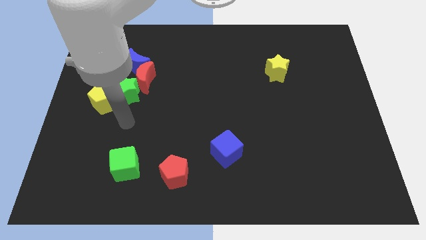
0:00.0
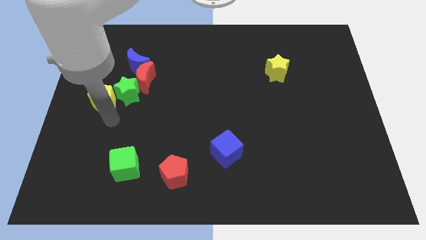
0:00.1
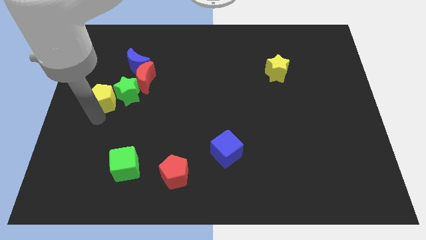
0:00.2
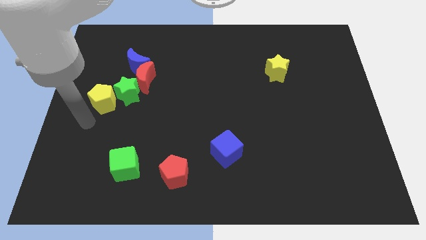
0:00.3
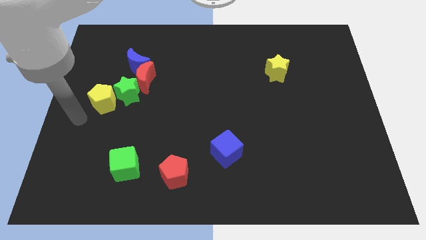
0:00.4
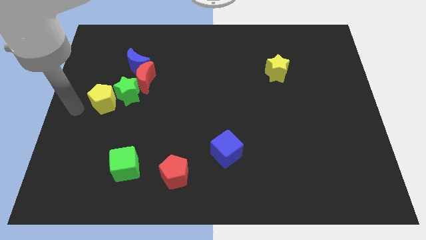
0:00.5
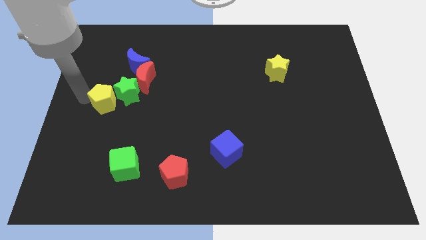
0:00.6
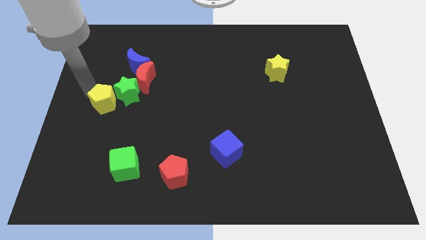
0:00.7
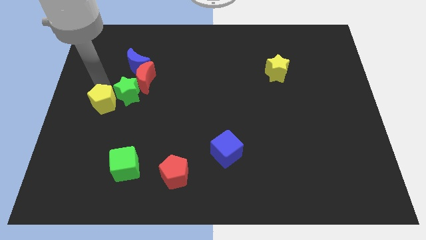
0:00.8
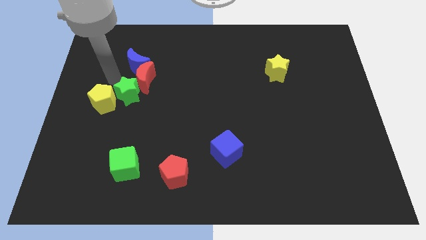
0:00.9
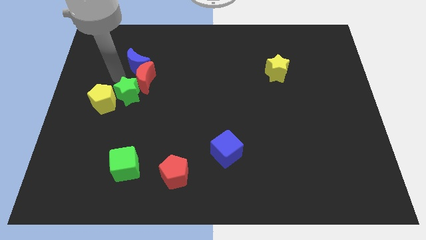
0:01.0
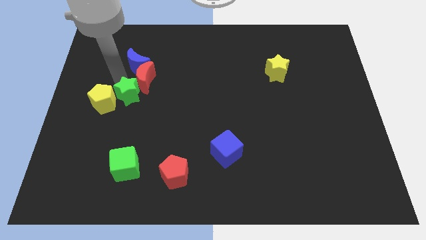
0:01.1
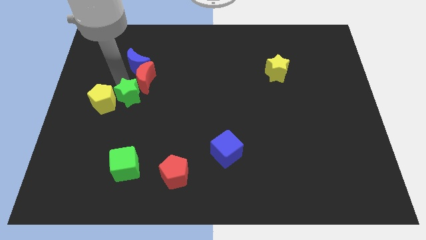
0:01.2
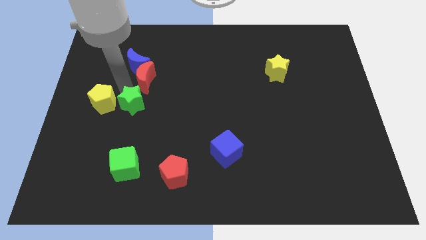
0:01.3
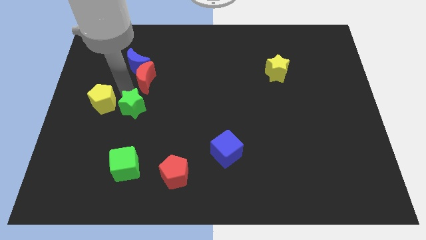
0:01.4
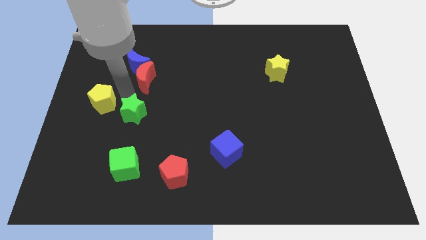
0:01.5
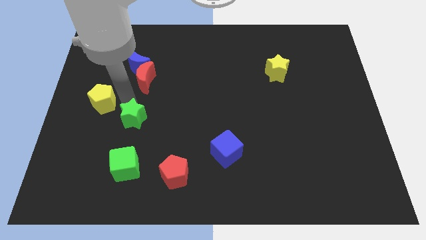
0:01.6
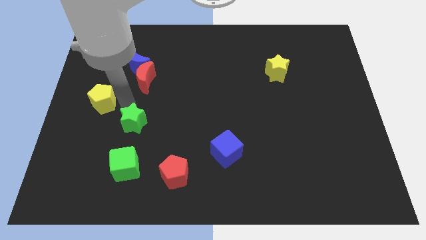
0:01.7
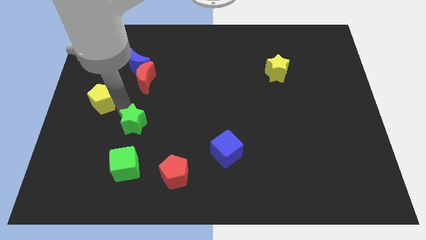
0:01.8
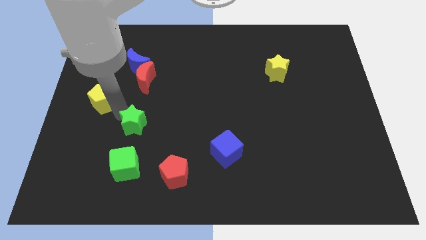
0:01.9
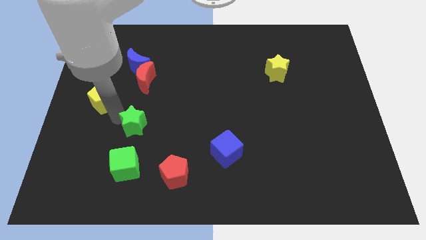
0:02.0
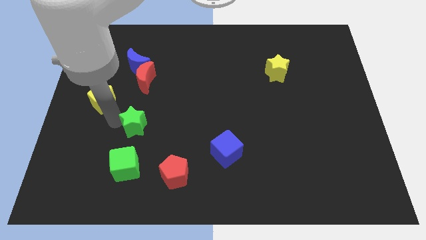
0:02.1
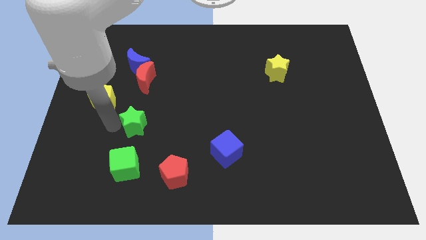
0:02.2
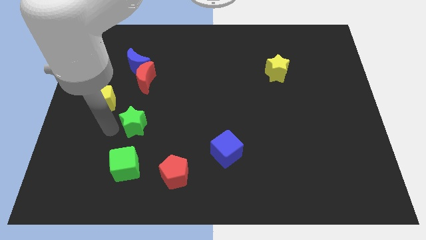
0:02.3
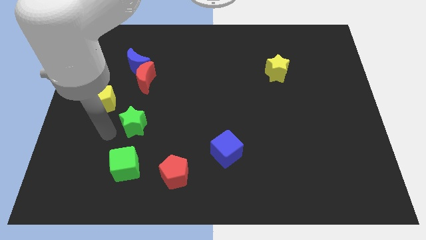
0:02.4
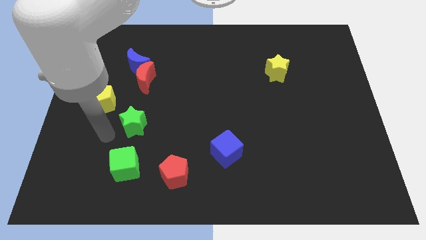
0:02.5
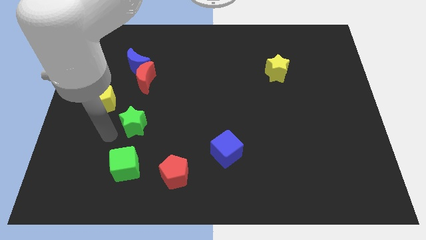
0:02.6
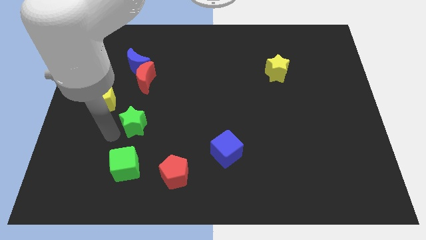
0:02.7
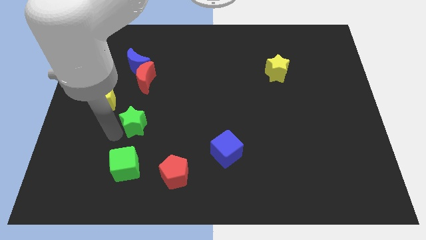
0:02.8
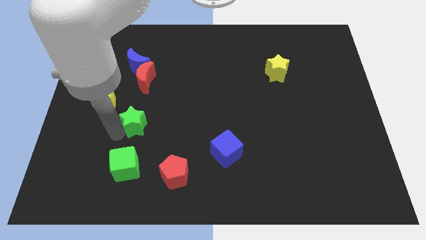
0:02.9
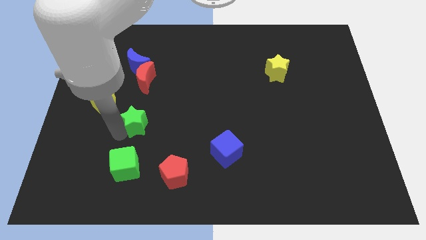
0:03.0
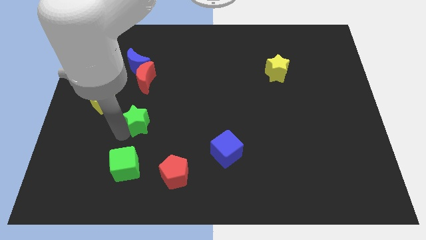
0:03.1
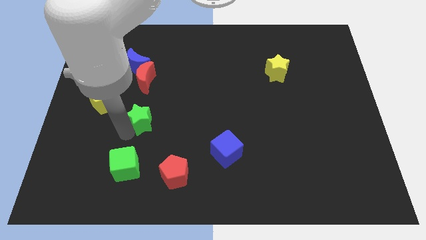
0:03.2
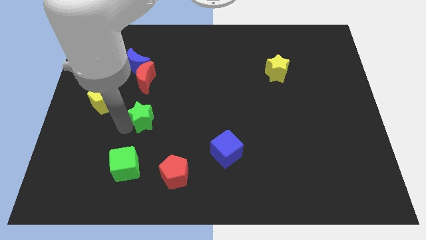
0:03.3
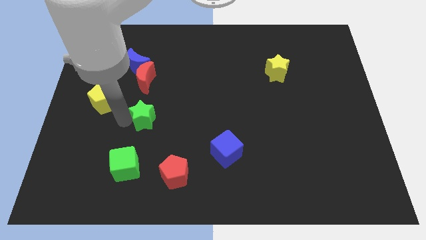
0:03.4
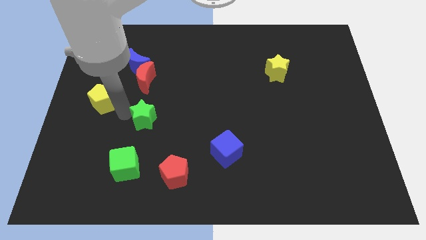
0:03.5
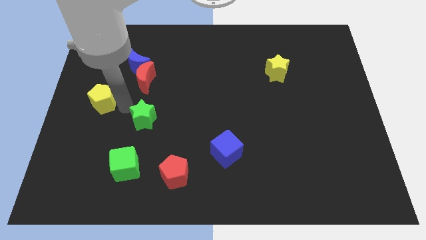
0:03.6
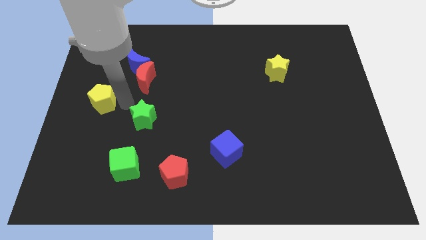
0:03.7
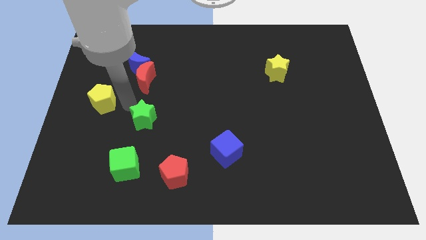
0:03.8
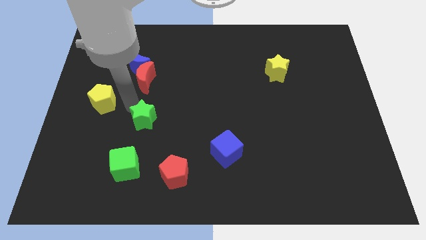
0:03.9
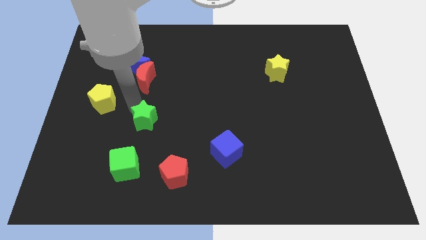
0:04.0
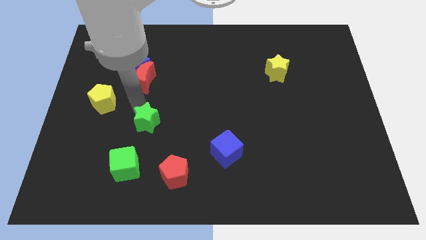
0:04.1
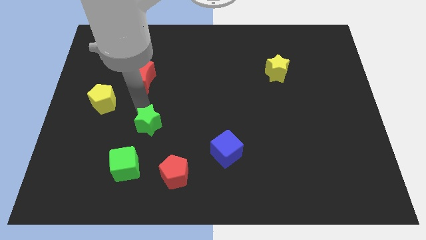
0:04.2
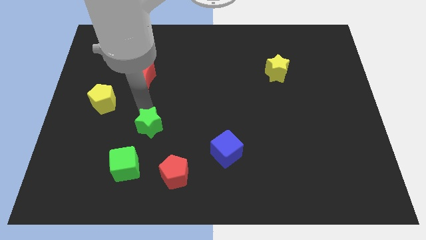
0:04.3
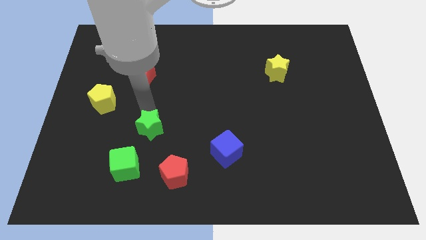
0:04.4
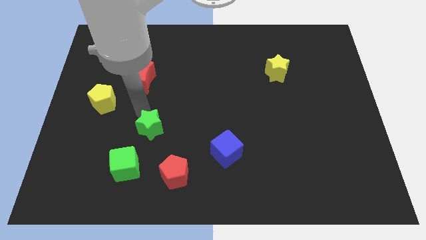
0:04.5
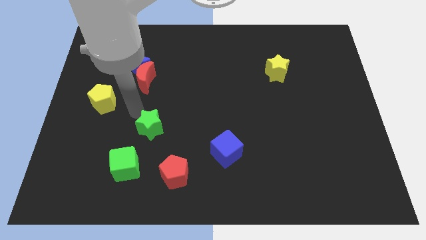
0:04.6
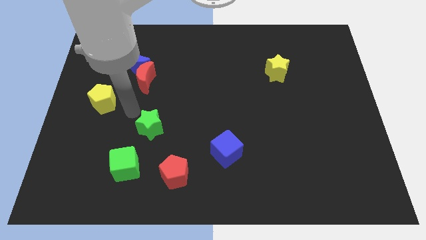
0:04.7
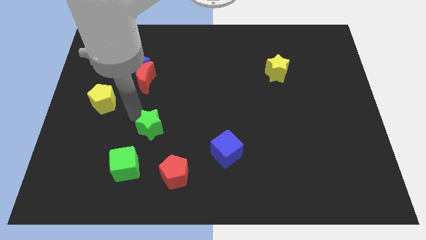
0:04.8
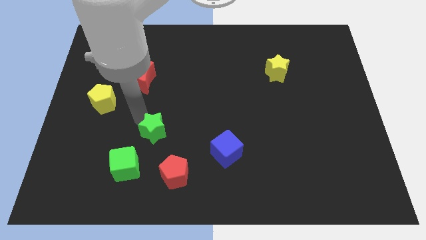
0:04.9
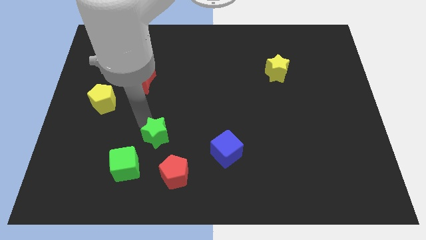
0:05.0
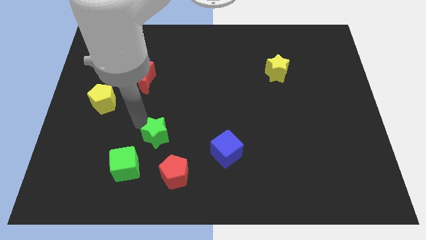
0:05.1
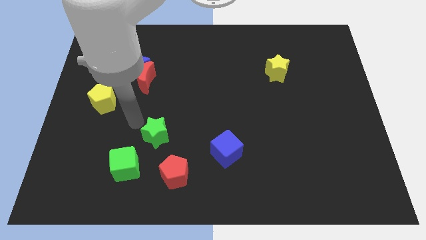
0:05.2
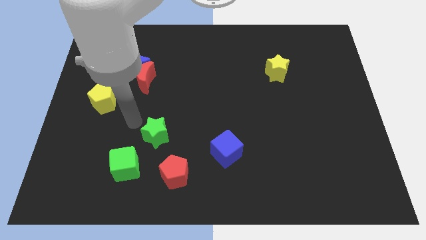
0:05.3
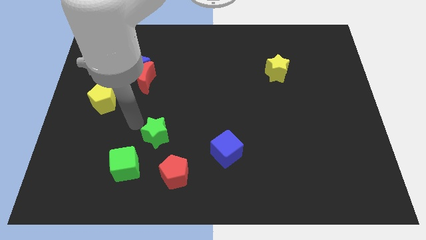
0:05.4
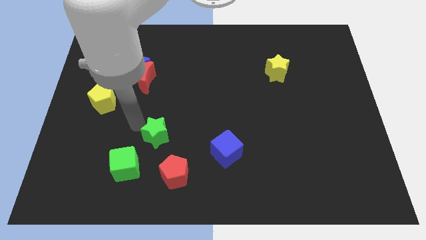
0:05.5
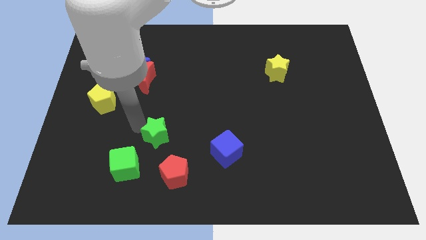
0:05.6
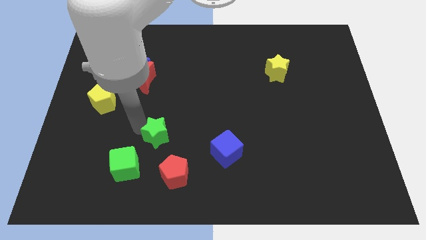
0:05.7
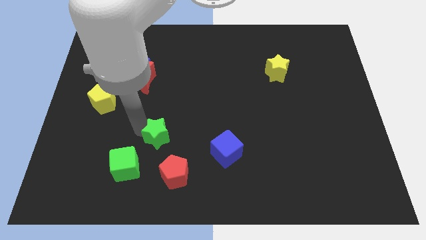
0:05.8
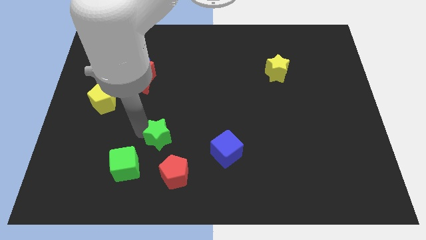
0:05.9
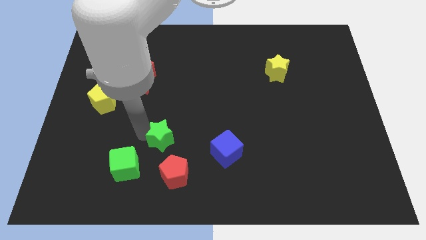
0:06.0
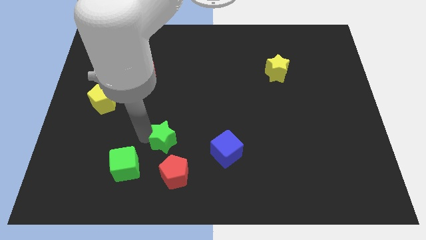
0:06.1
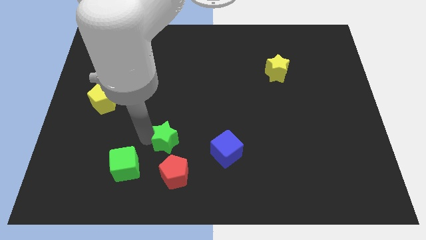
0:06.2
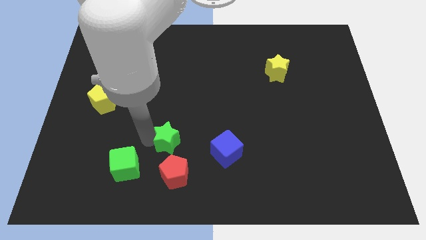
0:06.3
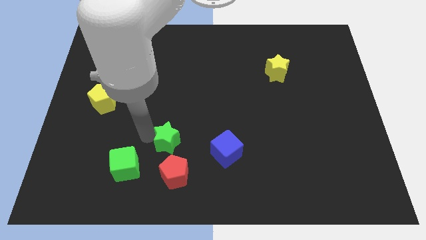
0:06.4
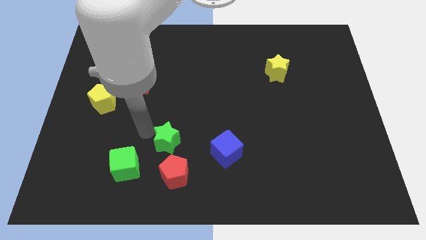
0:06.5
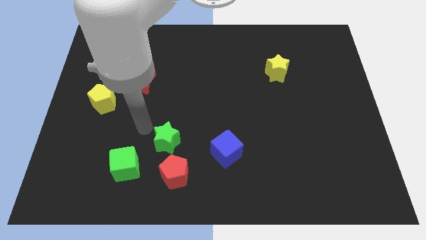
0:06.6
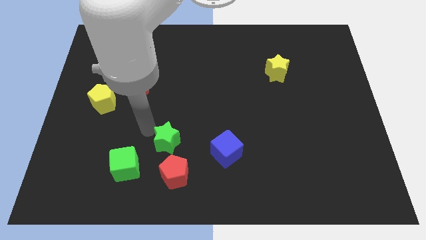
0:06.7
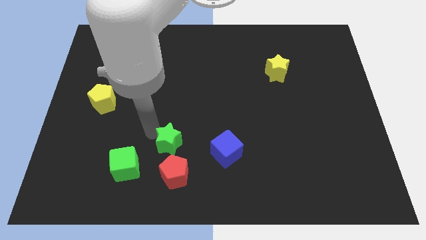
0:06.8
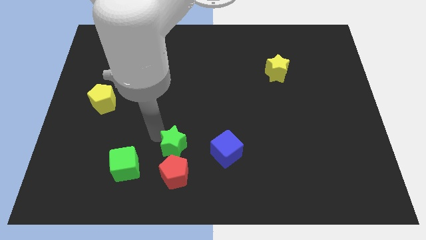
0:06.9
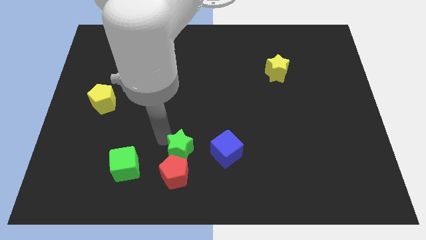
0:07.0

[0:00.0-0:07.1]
move the green star downwards and right diagonally

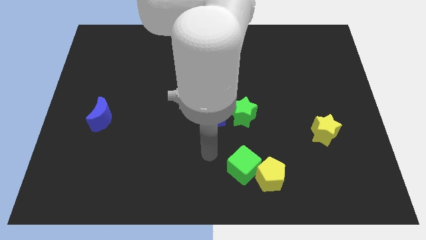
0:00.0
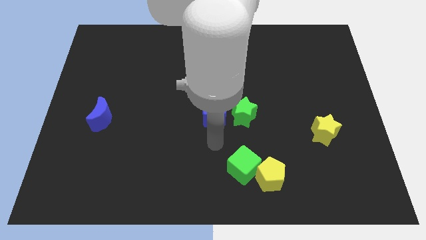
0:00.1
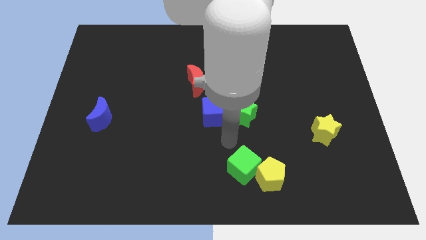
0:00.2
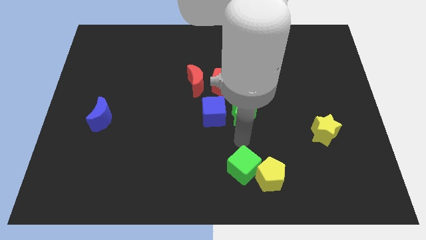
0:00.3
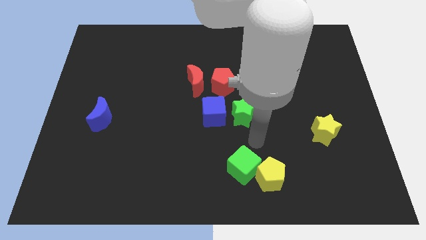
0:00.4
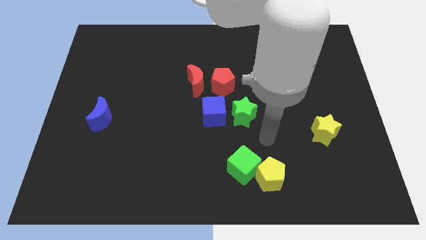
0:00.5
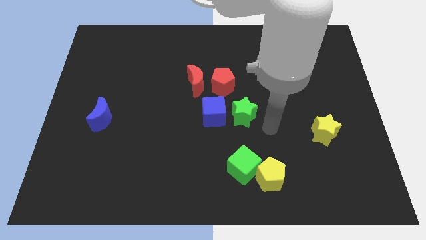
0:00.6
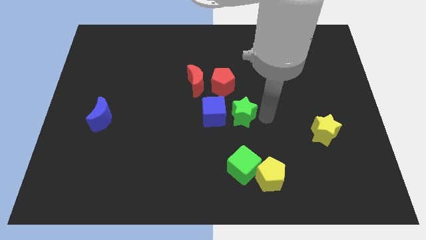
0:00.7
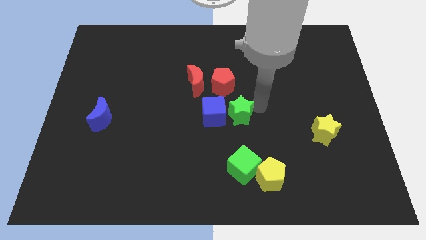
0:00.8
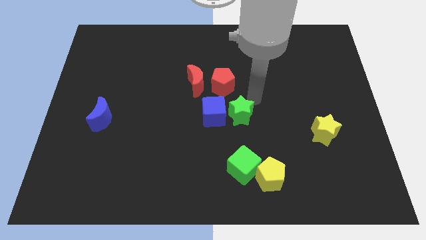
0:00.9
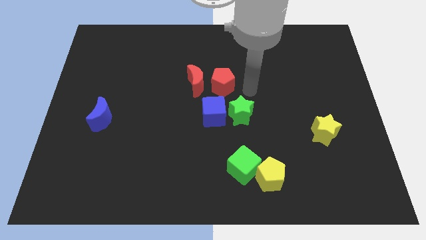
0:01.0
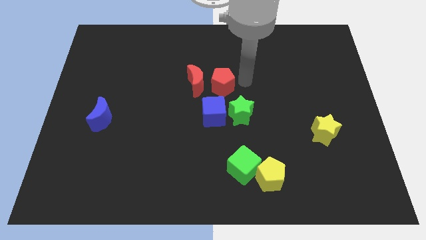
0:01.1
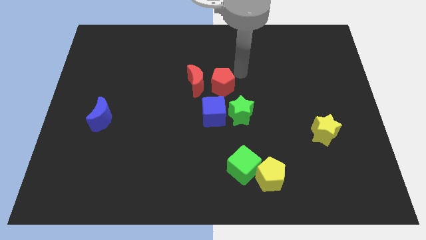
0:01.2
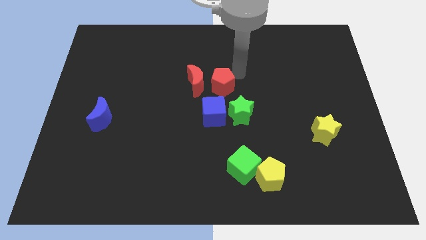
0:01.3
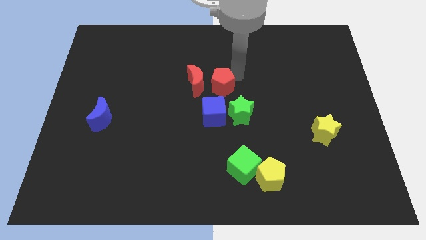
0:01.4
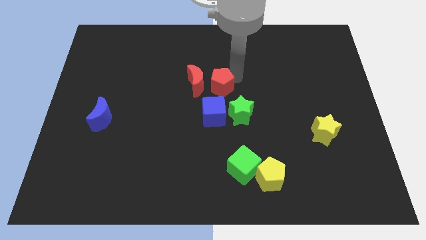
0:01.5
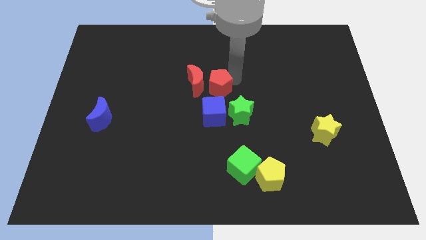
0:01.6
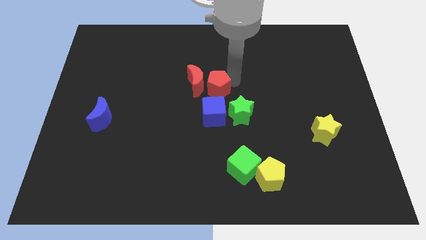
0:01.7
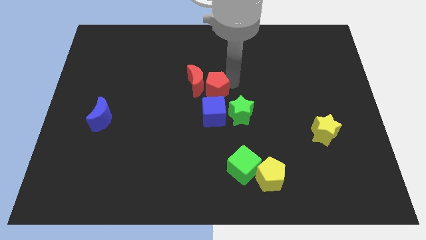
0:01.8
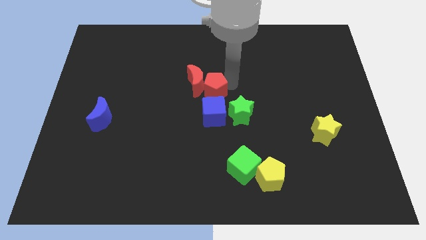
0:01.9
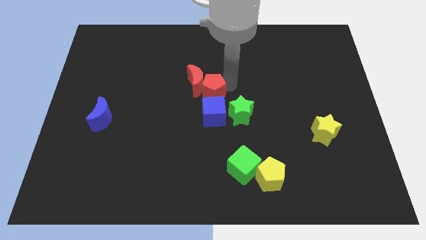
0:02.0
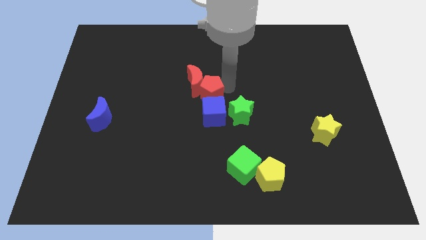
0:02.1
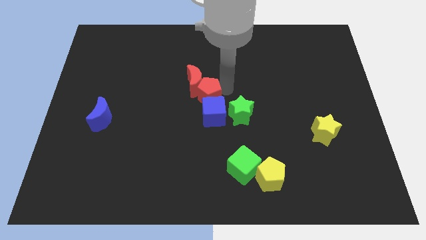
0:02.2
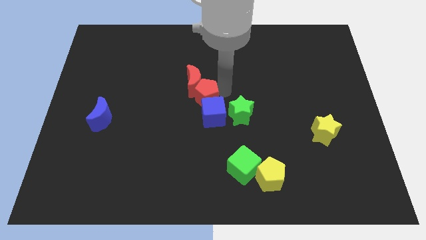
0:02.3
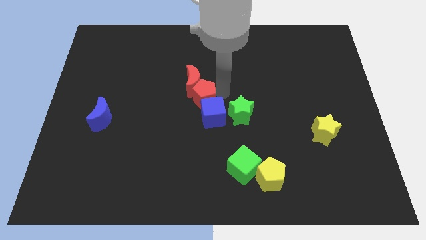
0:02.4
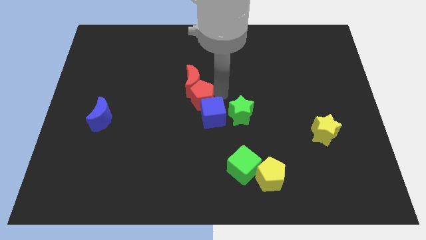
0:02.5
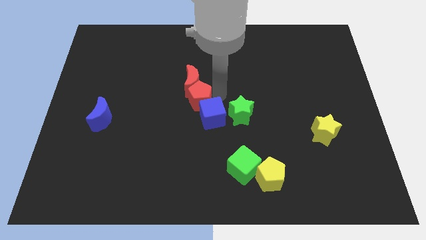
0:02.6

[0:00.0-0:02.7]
slightly slide the red pentagon down and to the left
